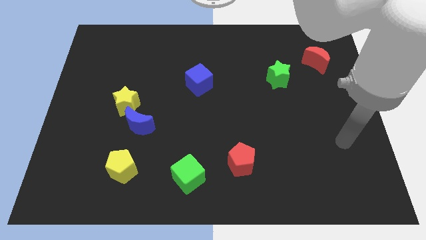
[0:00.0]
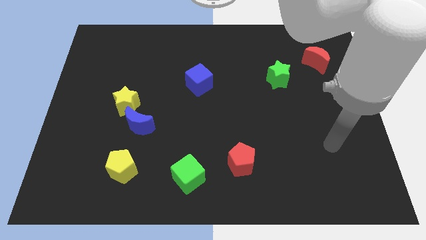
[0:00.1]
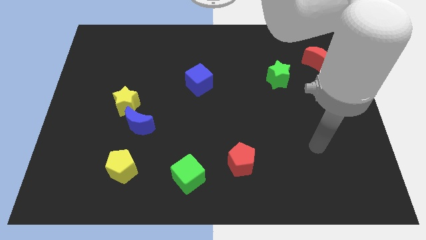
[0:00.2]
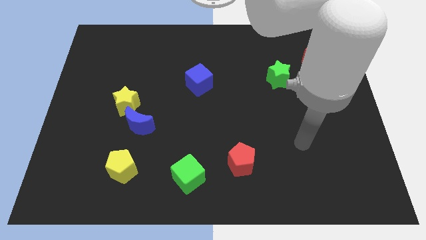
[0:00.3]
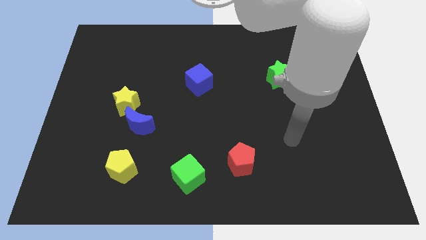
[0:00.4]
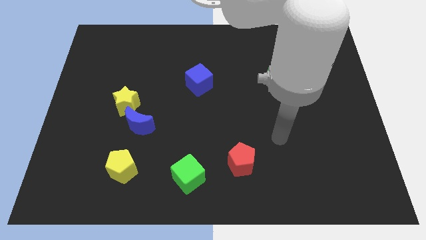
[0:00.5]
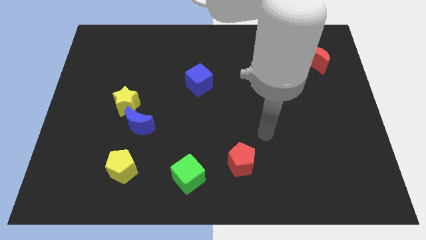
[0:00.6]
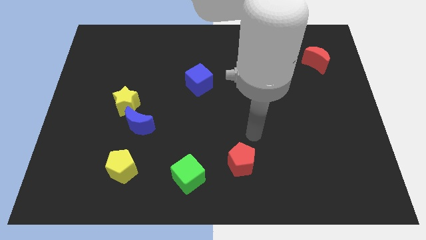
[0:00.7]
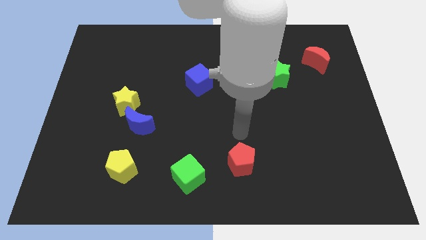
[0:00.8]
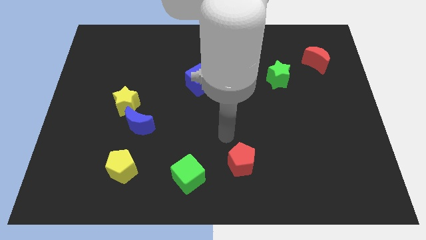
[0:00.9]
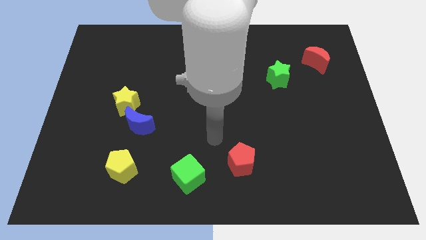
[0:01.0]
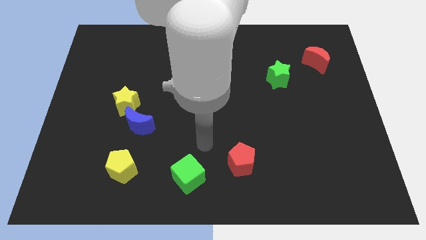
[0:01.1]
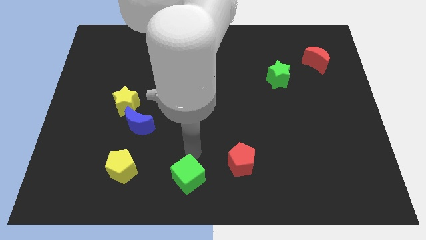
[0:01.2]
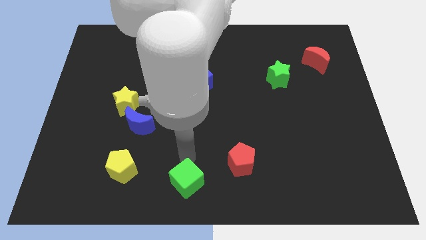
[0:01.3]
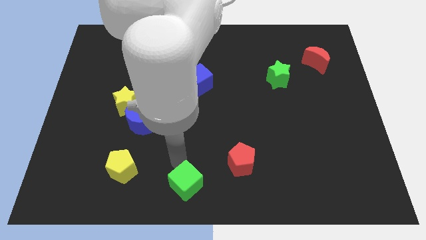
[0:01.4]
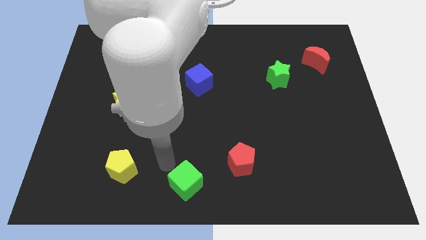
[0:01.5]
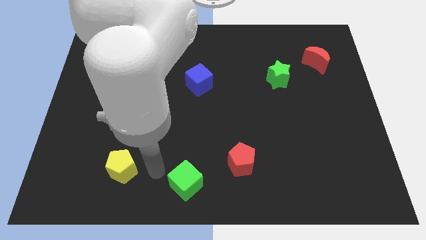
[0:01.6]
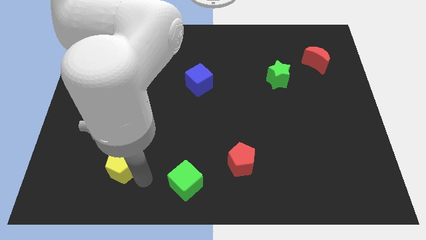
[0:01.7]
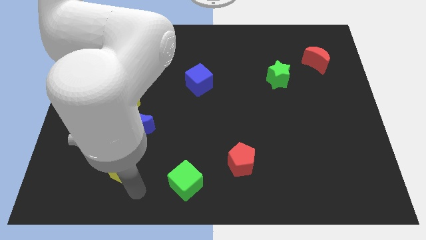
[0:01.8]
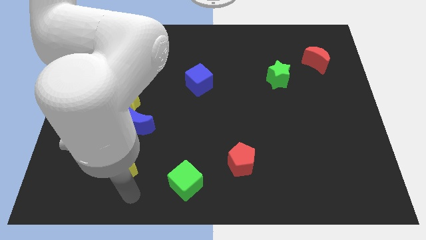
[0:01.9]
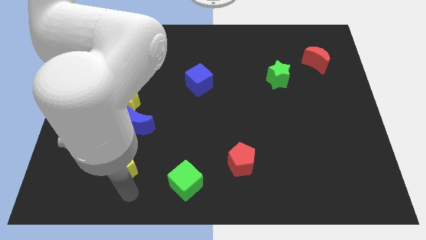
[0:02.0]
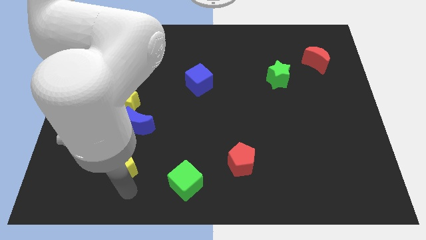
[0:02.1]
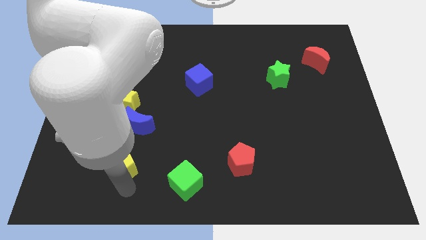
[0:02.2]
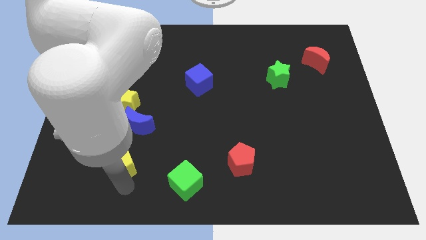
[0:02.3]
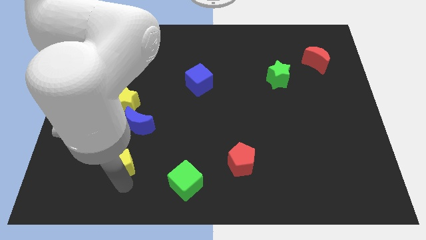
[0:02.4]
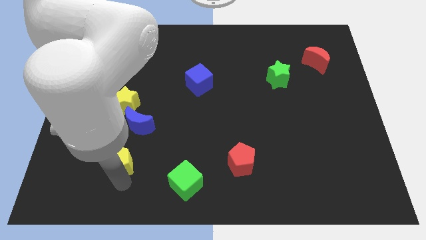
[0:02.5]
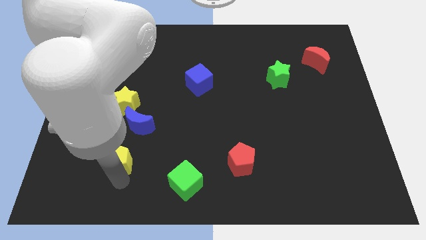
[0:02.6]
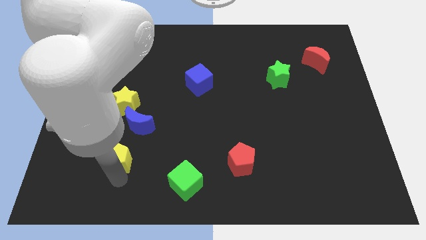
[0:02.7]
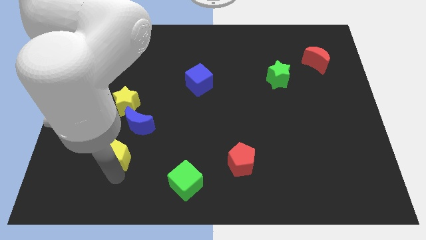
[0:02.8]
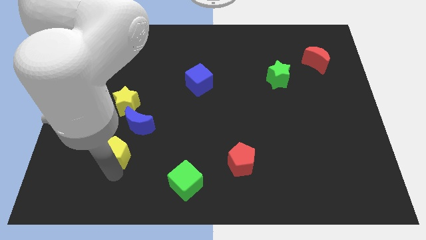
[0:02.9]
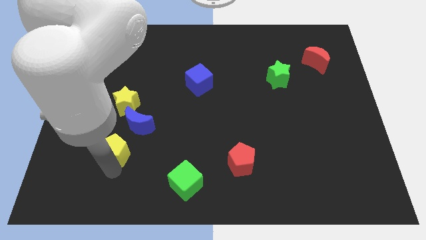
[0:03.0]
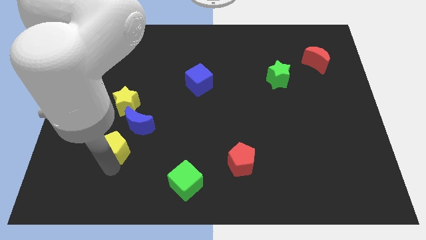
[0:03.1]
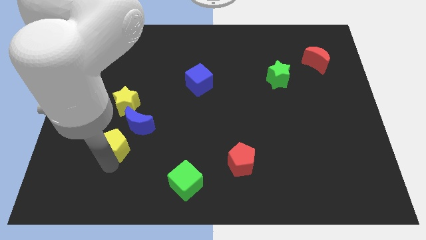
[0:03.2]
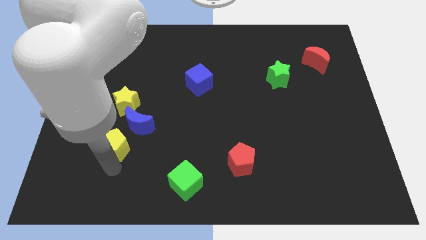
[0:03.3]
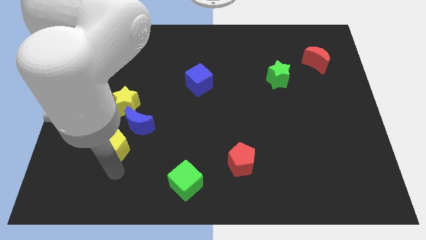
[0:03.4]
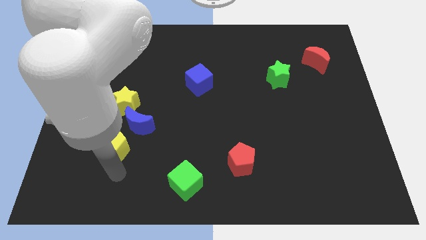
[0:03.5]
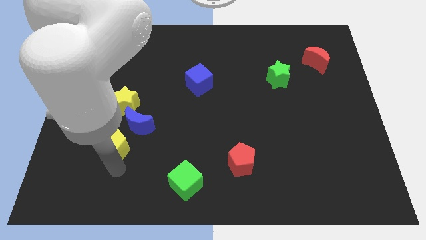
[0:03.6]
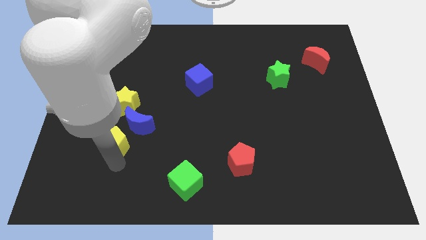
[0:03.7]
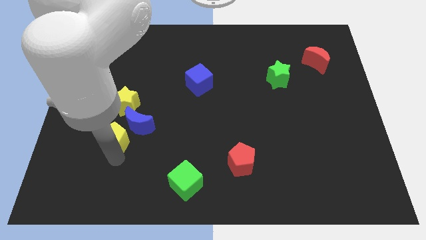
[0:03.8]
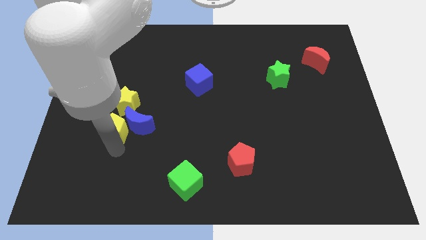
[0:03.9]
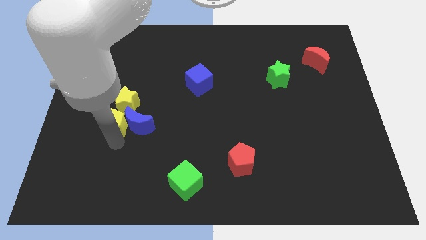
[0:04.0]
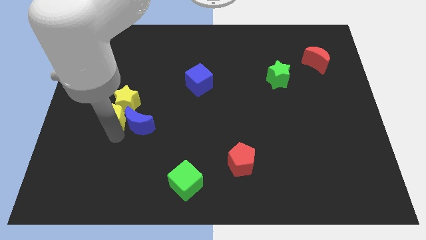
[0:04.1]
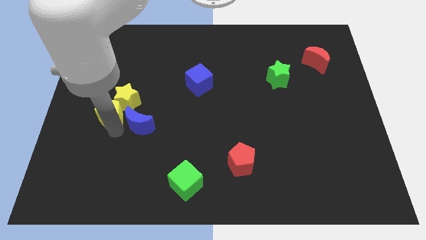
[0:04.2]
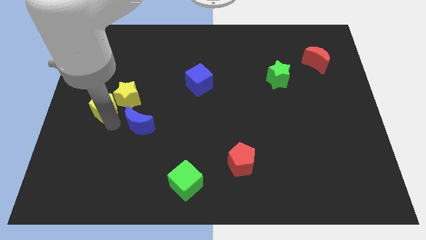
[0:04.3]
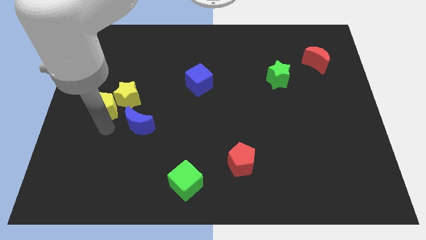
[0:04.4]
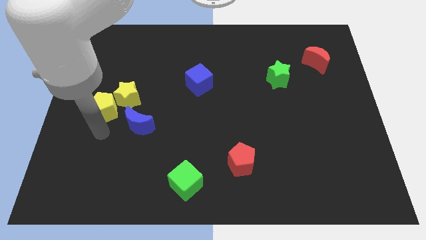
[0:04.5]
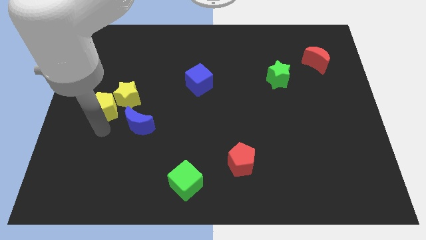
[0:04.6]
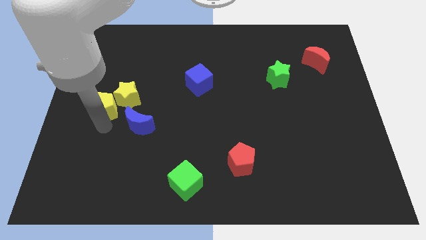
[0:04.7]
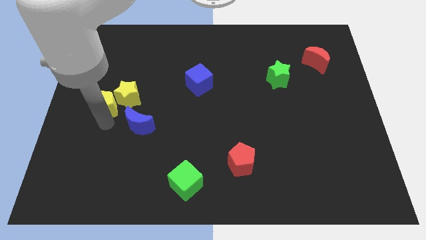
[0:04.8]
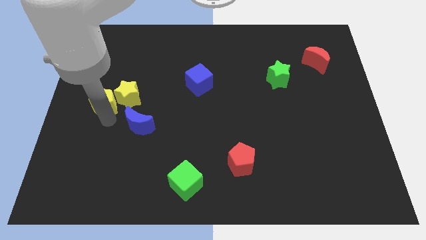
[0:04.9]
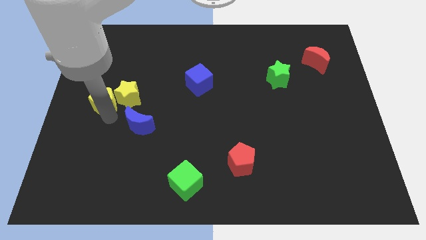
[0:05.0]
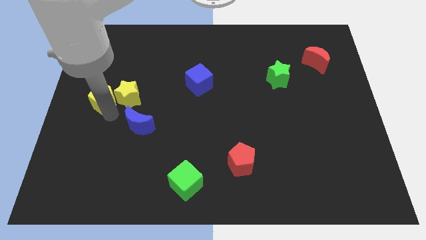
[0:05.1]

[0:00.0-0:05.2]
put the yellow pentagon to the top left side of the yellow star

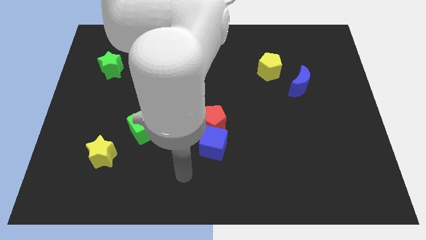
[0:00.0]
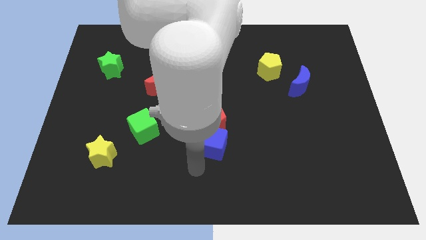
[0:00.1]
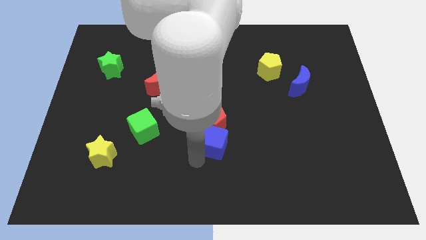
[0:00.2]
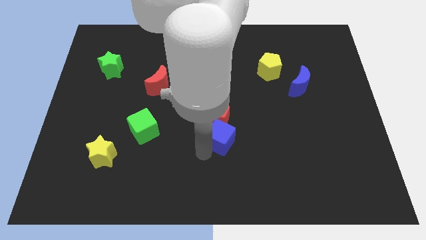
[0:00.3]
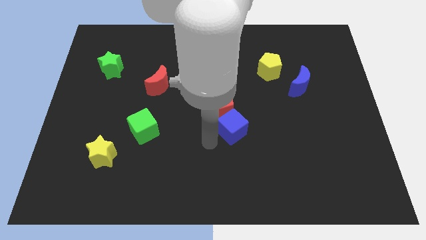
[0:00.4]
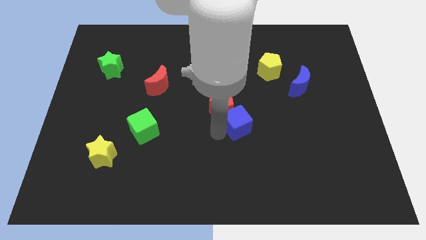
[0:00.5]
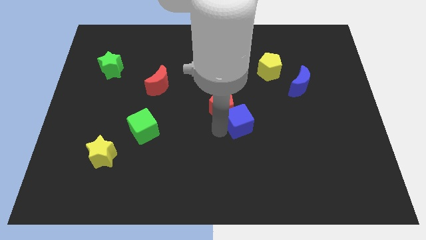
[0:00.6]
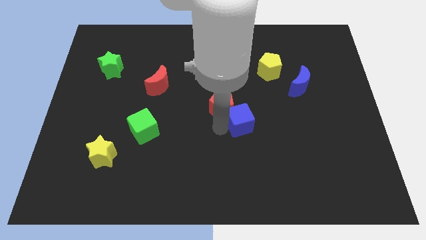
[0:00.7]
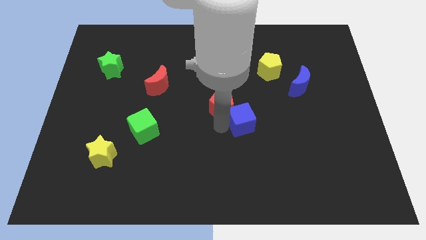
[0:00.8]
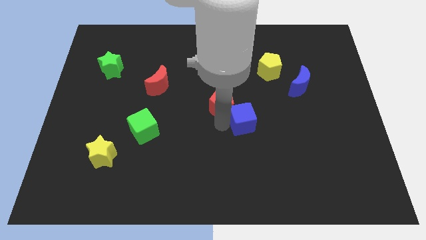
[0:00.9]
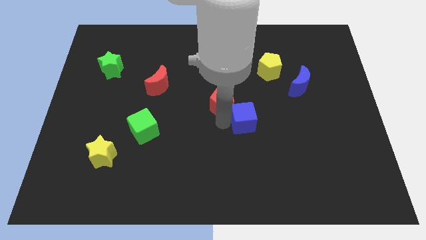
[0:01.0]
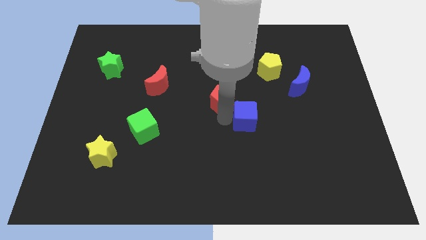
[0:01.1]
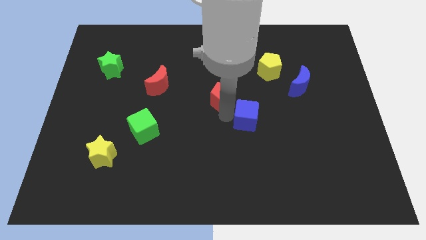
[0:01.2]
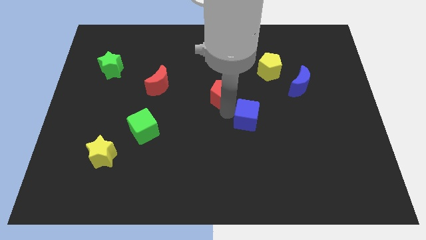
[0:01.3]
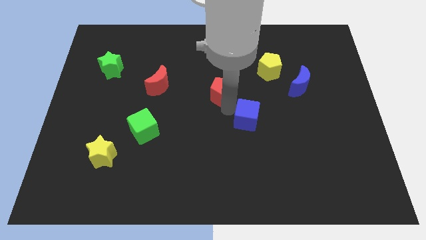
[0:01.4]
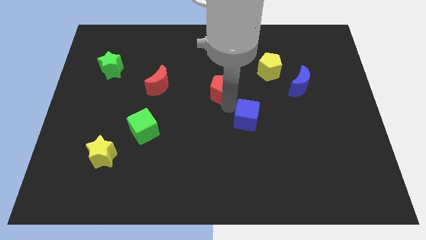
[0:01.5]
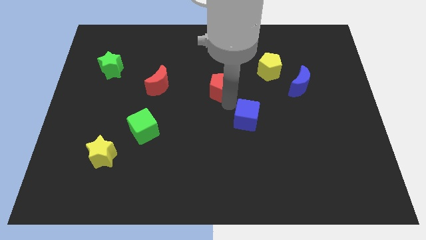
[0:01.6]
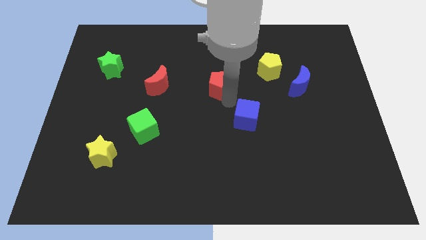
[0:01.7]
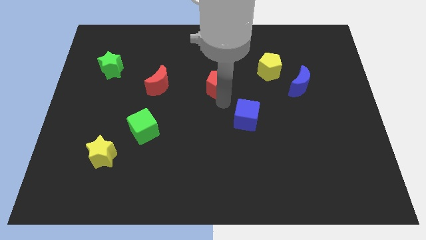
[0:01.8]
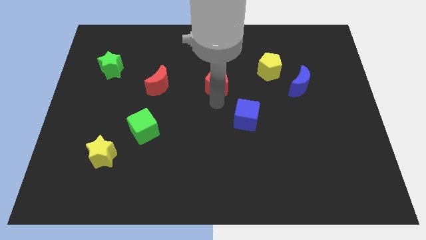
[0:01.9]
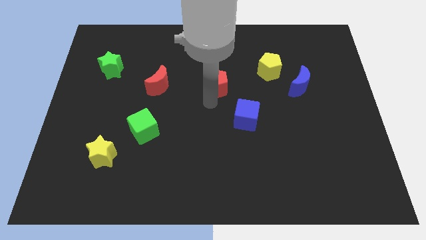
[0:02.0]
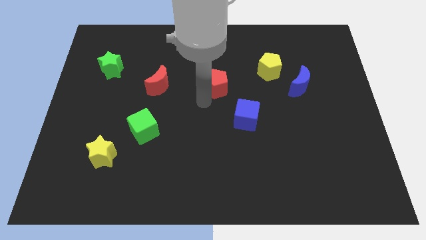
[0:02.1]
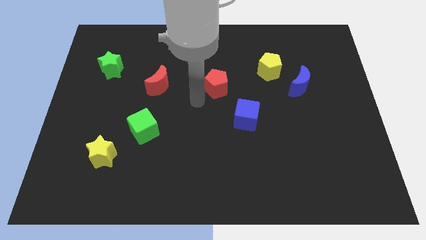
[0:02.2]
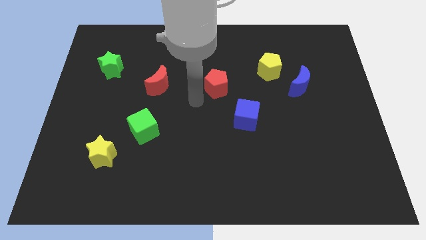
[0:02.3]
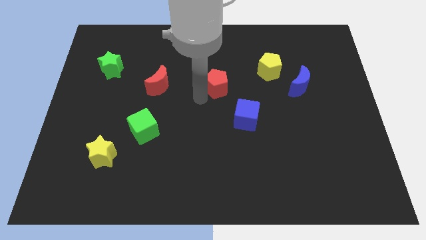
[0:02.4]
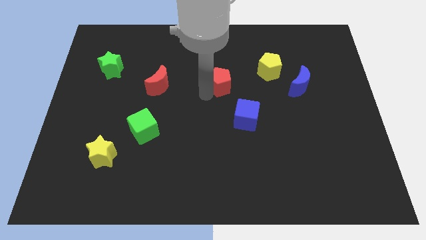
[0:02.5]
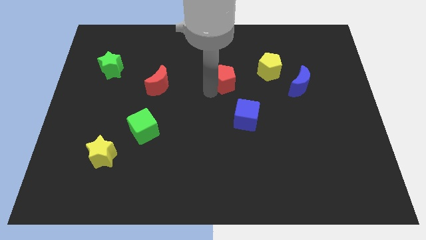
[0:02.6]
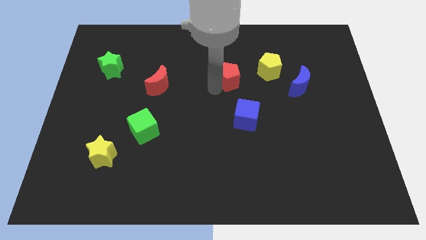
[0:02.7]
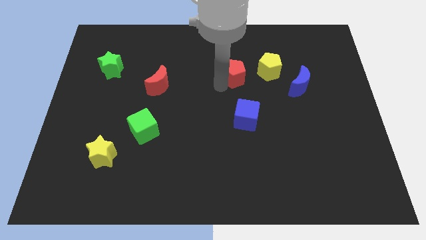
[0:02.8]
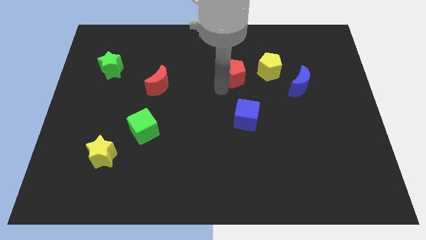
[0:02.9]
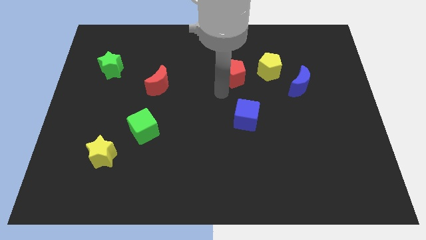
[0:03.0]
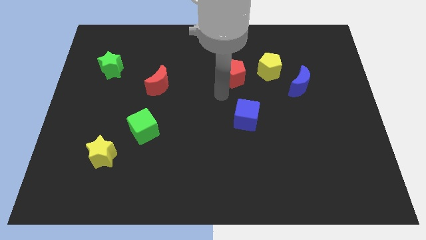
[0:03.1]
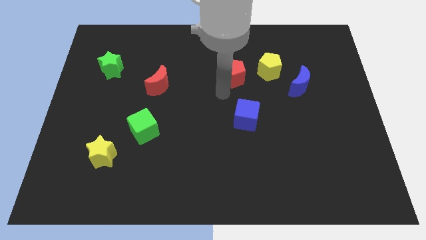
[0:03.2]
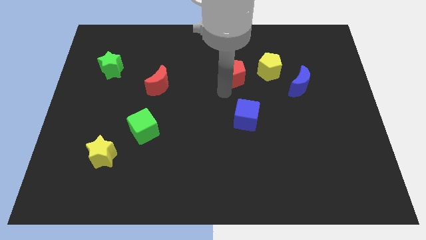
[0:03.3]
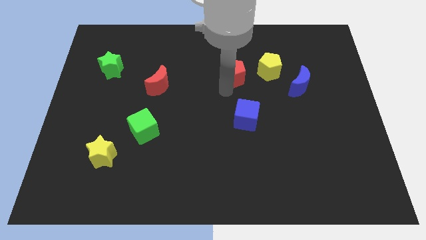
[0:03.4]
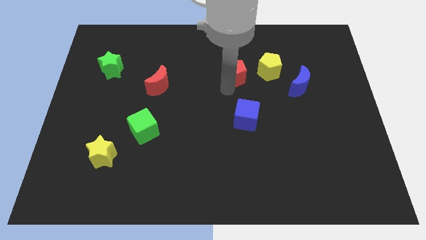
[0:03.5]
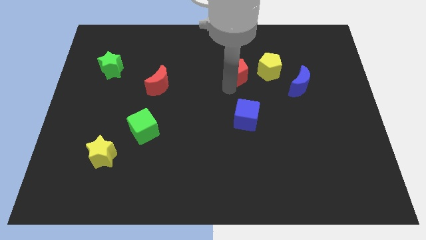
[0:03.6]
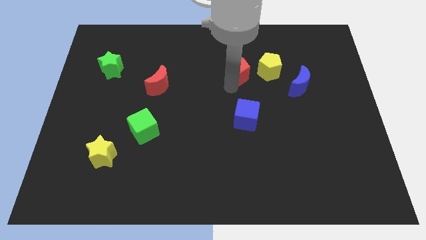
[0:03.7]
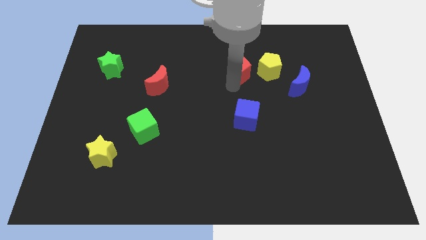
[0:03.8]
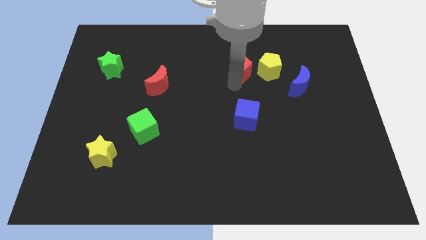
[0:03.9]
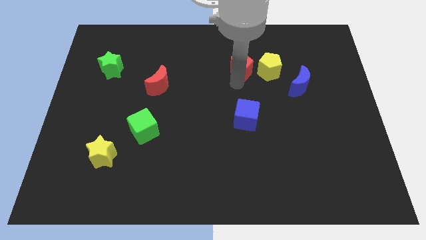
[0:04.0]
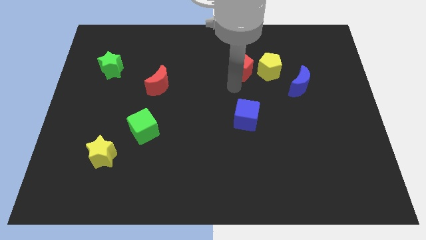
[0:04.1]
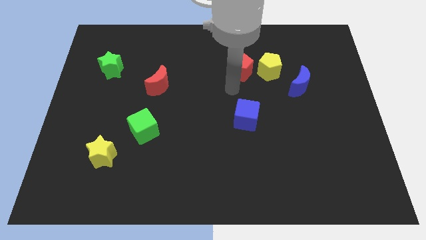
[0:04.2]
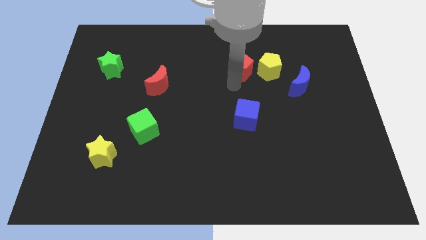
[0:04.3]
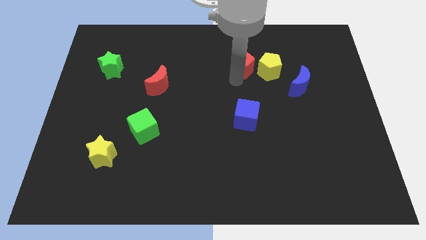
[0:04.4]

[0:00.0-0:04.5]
move the red pentagon to the top left side of the yellow pentagon
